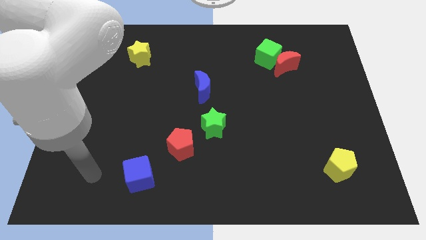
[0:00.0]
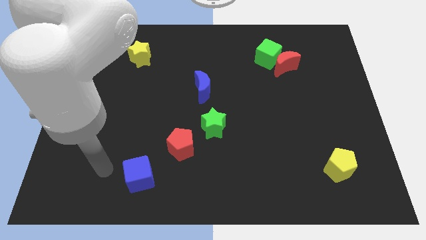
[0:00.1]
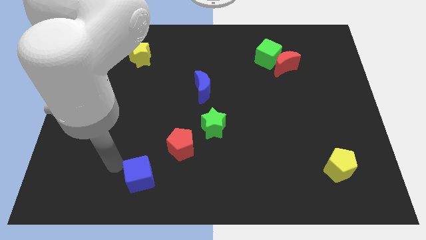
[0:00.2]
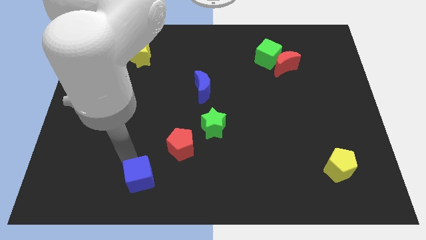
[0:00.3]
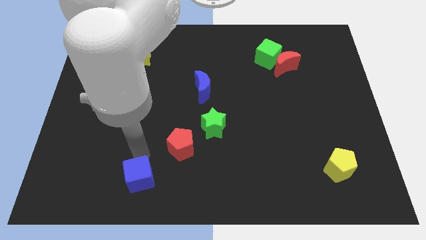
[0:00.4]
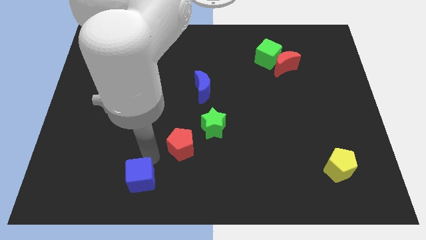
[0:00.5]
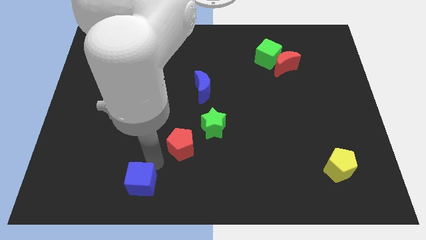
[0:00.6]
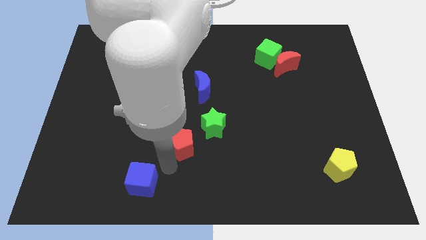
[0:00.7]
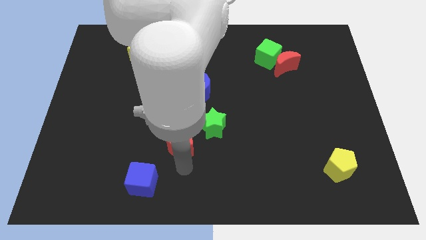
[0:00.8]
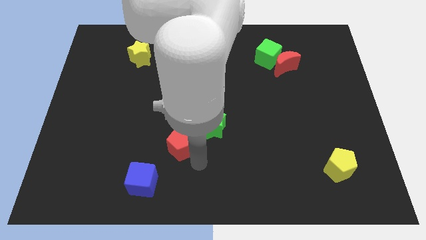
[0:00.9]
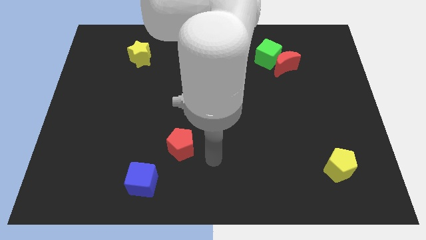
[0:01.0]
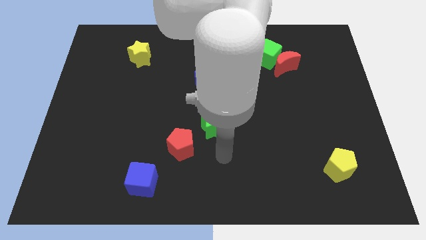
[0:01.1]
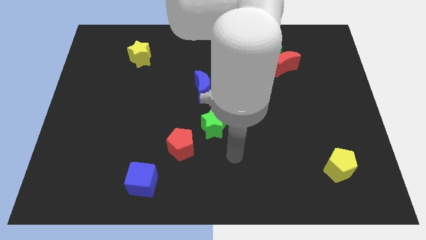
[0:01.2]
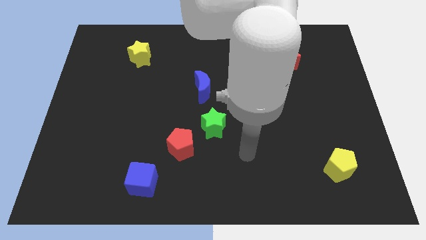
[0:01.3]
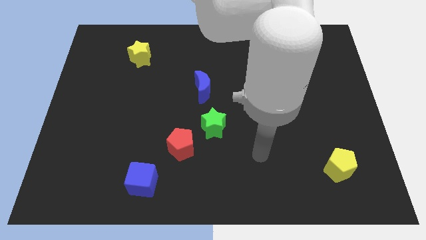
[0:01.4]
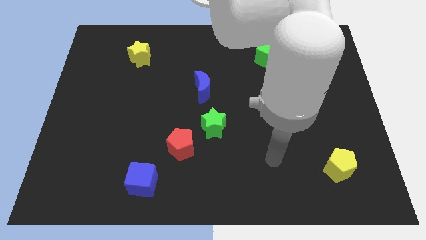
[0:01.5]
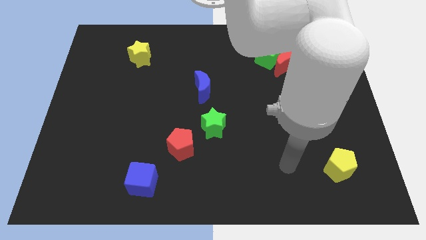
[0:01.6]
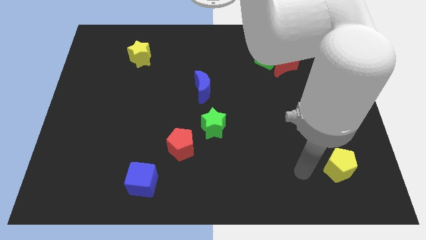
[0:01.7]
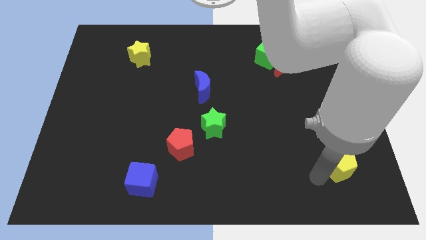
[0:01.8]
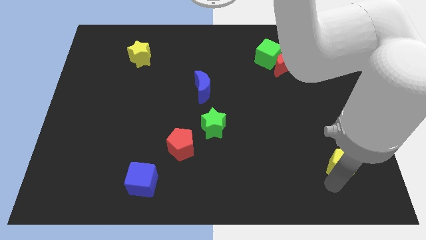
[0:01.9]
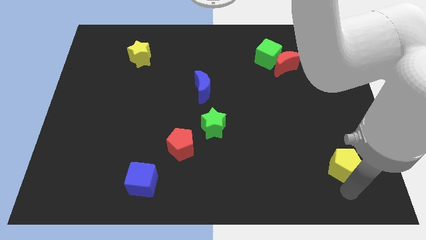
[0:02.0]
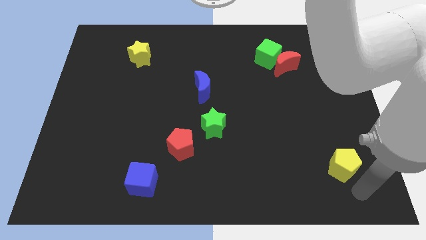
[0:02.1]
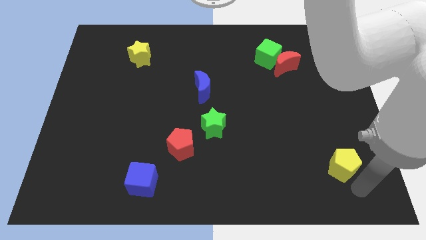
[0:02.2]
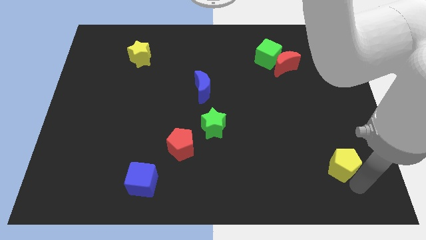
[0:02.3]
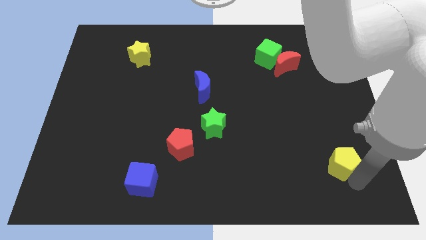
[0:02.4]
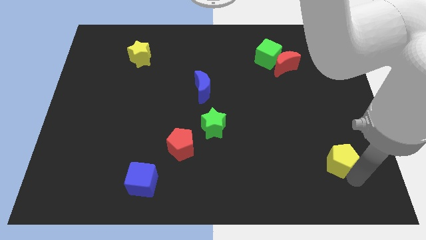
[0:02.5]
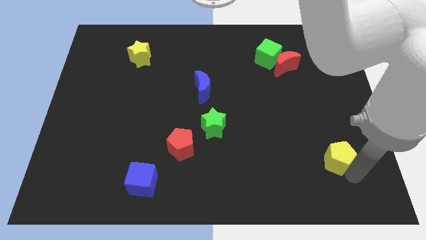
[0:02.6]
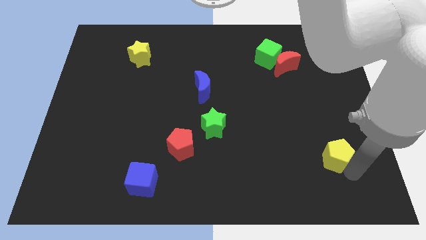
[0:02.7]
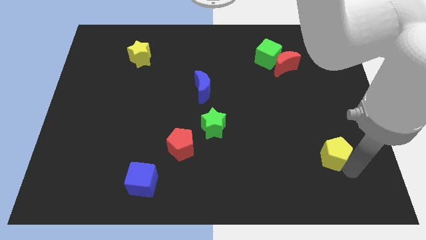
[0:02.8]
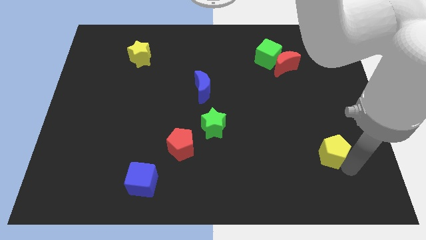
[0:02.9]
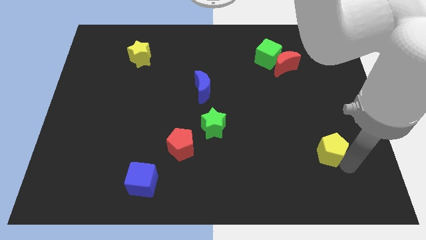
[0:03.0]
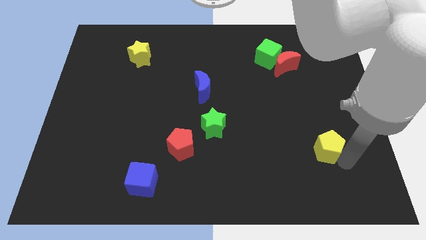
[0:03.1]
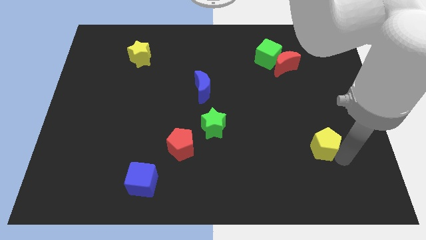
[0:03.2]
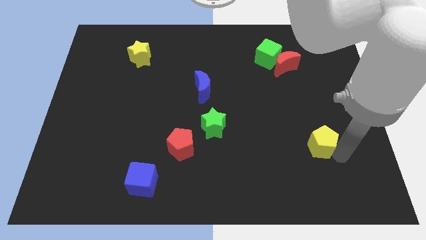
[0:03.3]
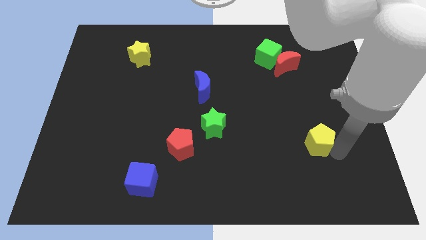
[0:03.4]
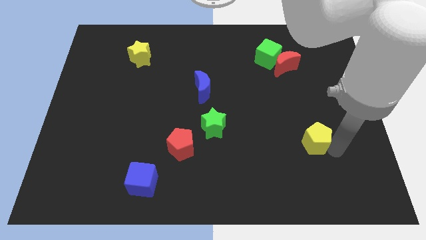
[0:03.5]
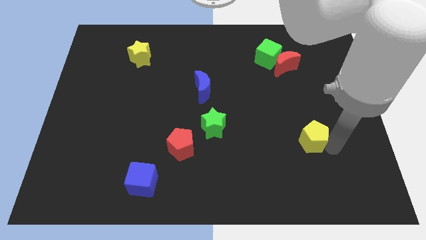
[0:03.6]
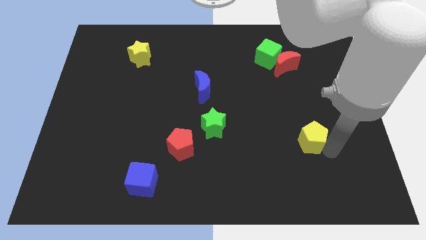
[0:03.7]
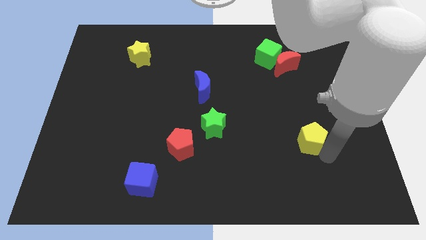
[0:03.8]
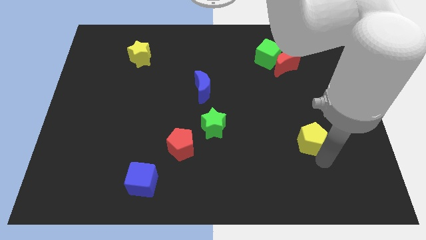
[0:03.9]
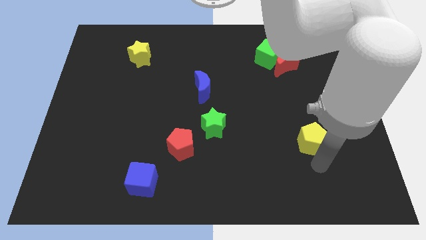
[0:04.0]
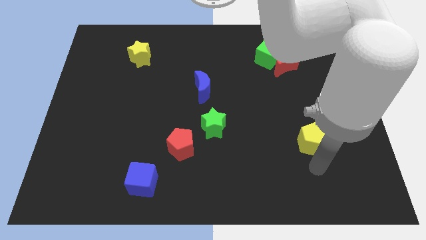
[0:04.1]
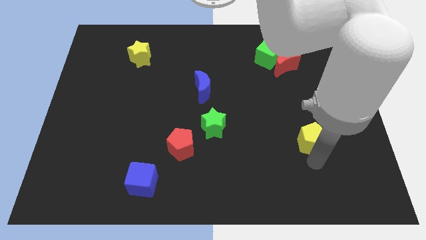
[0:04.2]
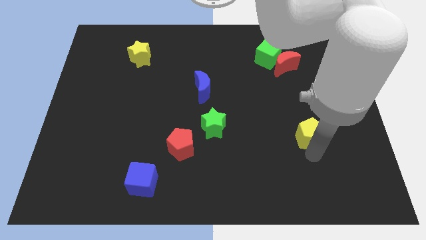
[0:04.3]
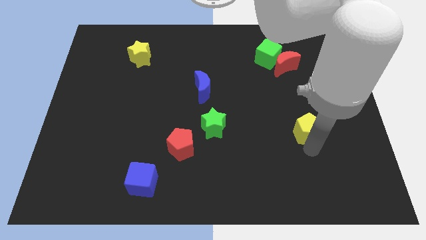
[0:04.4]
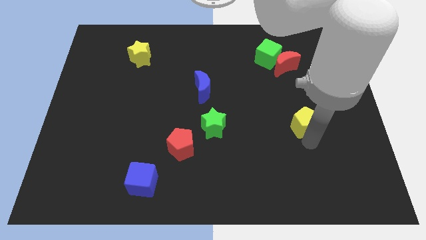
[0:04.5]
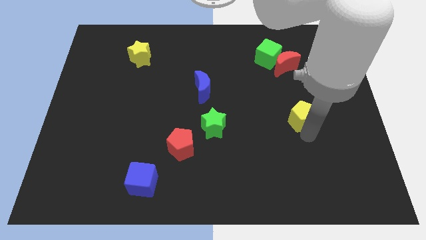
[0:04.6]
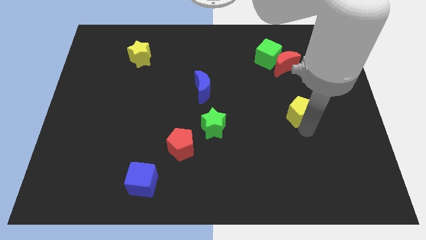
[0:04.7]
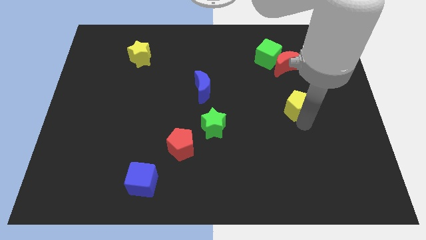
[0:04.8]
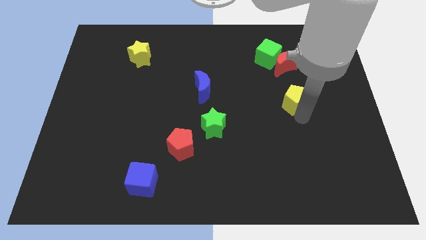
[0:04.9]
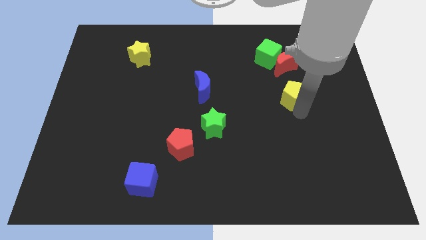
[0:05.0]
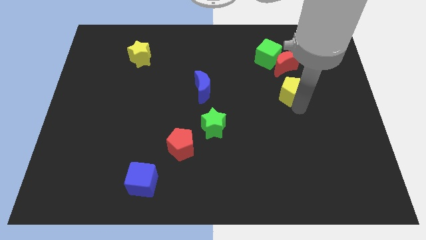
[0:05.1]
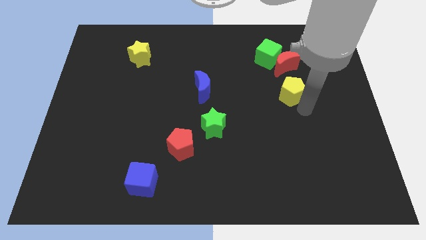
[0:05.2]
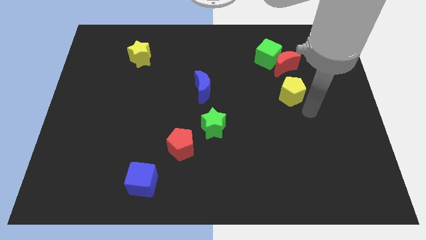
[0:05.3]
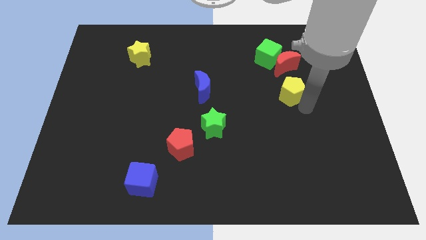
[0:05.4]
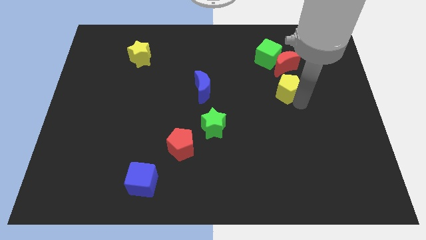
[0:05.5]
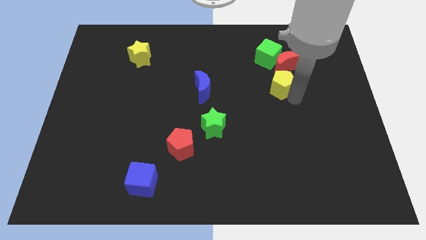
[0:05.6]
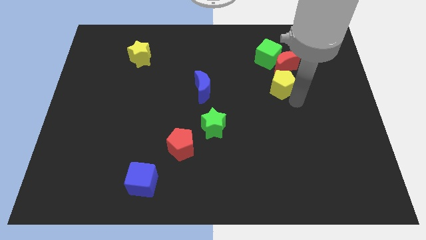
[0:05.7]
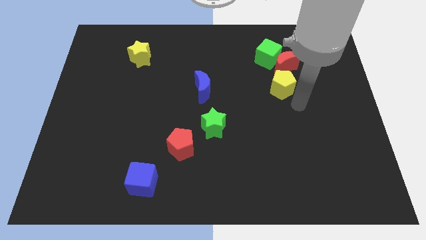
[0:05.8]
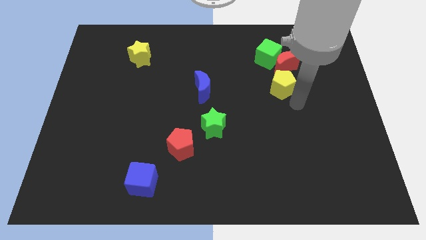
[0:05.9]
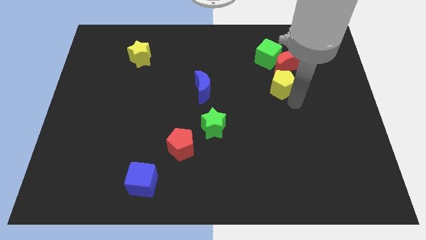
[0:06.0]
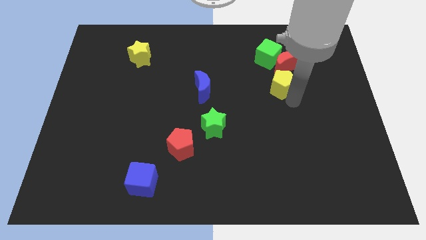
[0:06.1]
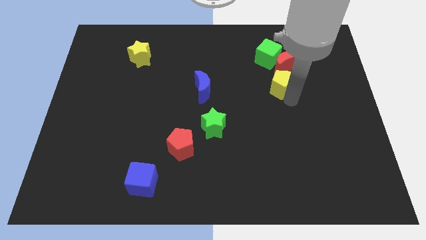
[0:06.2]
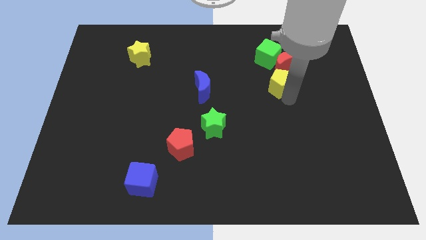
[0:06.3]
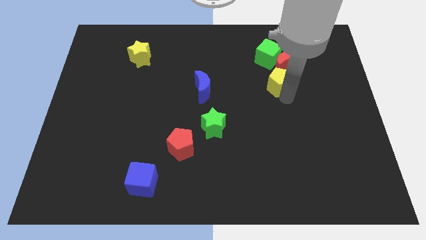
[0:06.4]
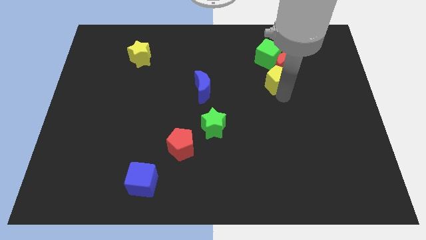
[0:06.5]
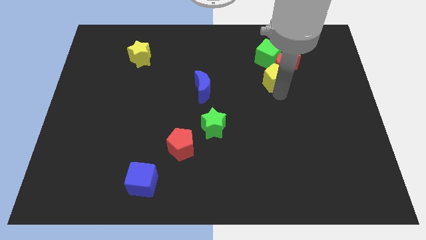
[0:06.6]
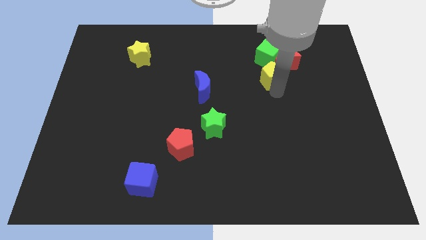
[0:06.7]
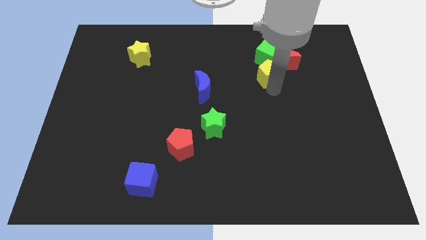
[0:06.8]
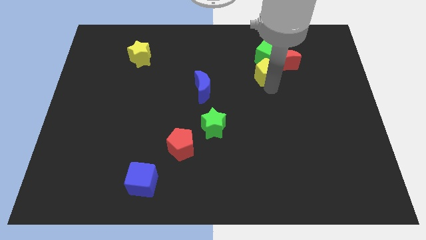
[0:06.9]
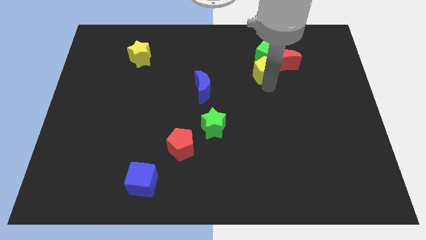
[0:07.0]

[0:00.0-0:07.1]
slide the yellow pentagon next to the green cube

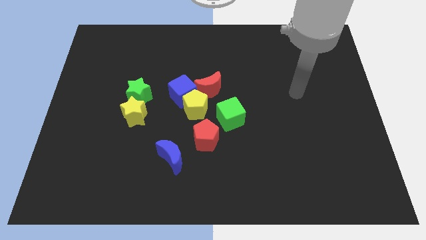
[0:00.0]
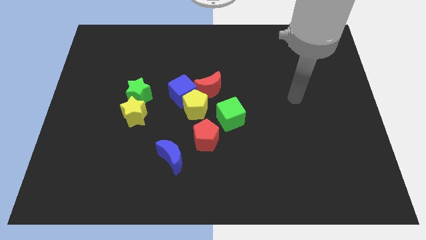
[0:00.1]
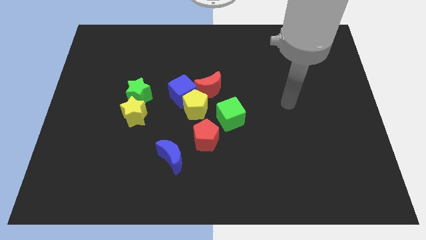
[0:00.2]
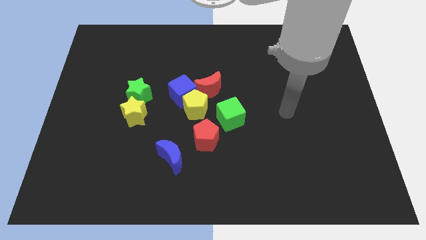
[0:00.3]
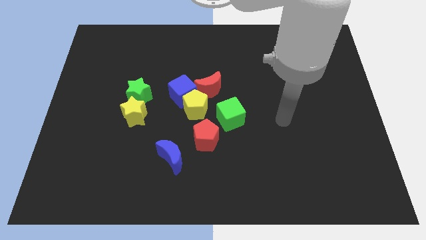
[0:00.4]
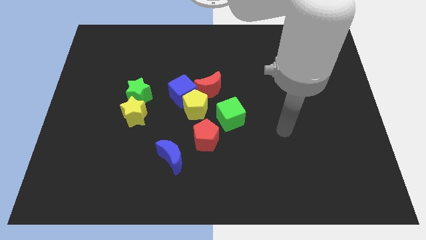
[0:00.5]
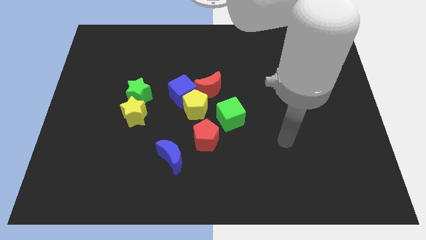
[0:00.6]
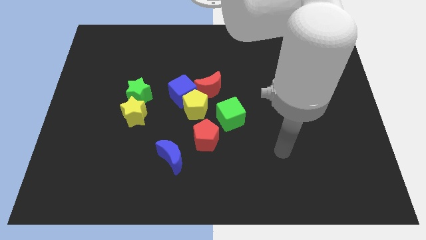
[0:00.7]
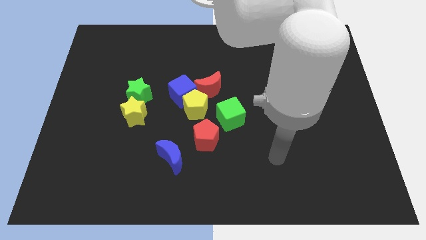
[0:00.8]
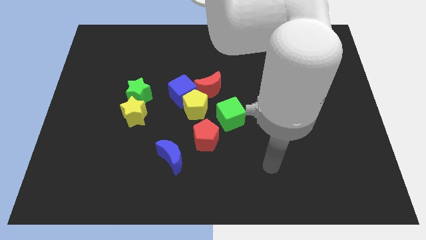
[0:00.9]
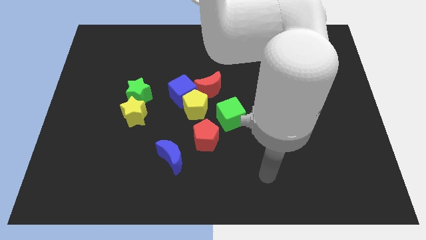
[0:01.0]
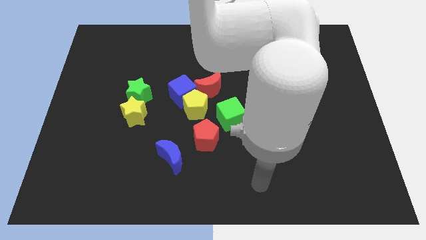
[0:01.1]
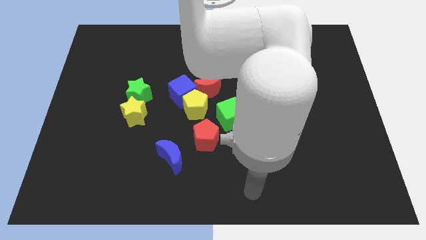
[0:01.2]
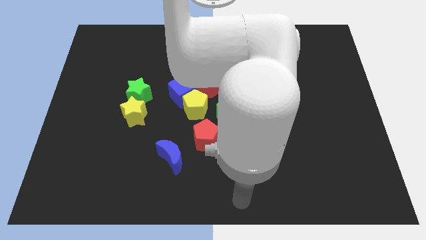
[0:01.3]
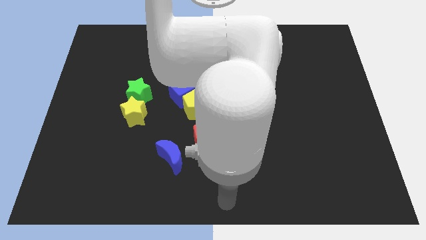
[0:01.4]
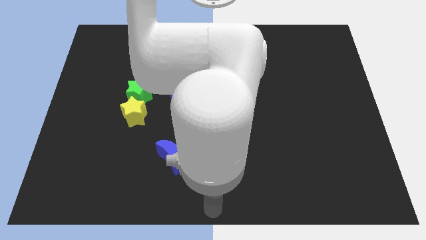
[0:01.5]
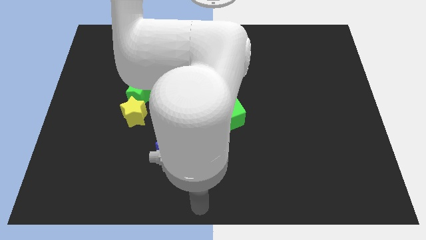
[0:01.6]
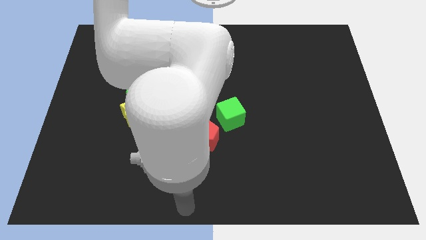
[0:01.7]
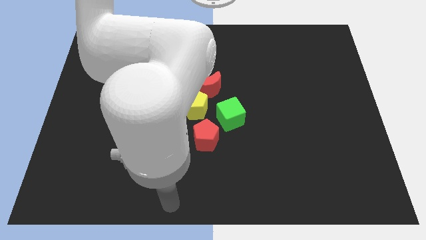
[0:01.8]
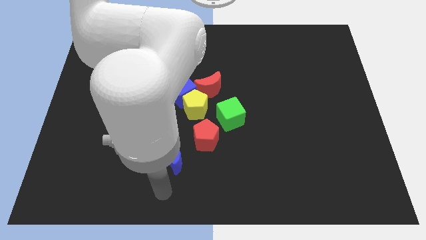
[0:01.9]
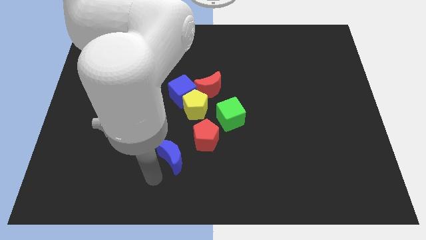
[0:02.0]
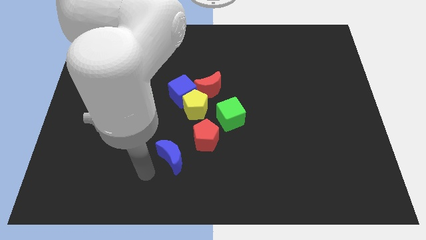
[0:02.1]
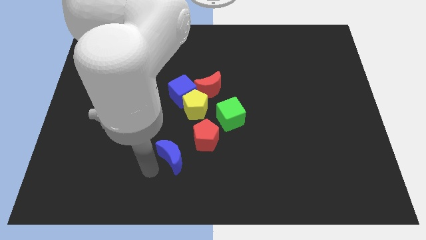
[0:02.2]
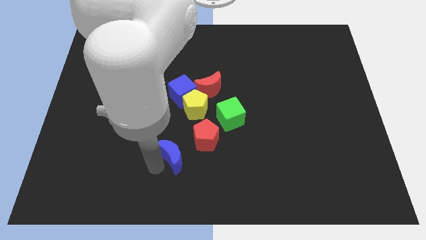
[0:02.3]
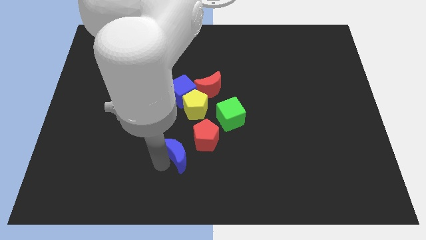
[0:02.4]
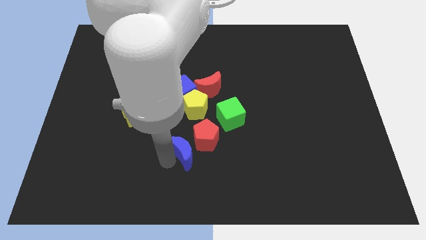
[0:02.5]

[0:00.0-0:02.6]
put the blue moon next to the red pentagon
